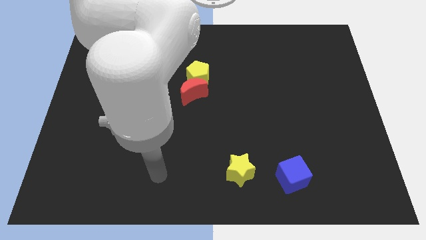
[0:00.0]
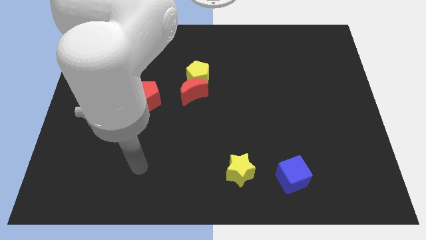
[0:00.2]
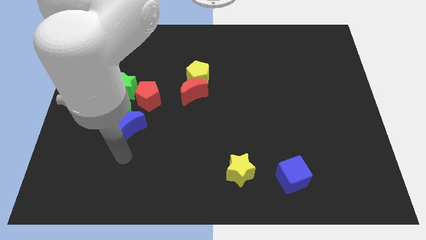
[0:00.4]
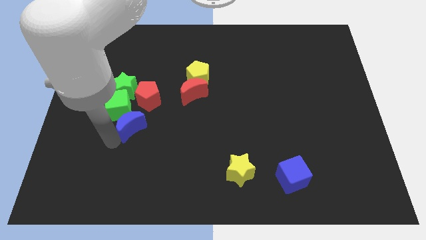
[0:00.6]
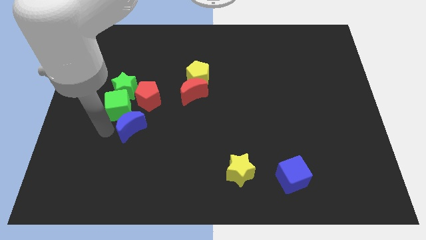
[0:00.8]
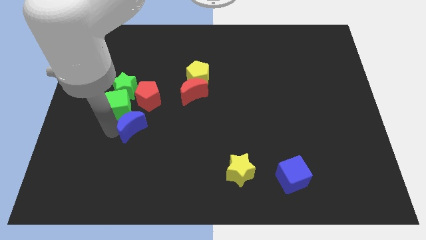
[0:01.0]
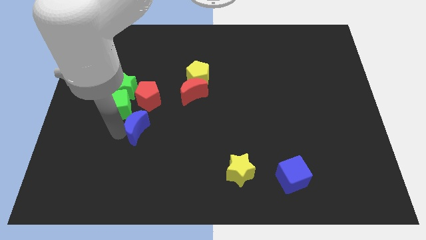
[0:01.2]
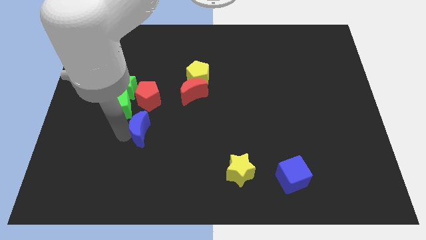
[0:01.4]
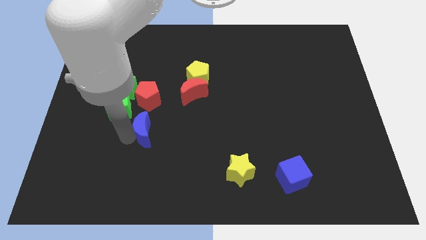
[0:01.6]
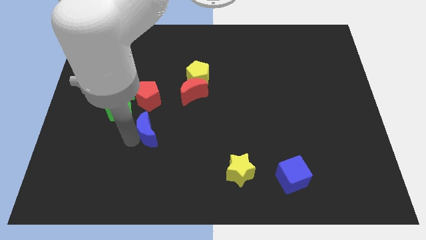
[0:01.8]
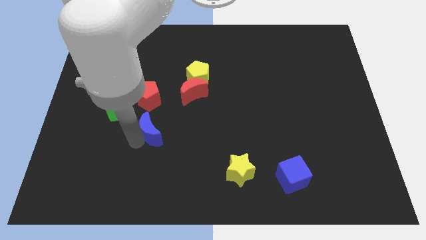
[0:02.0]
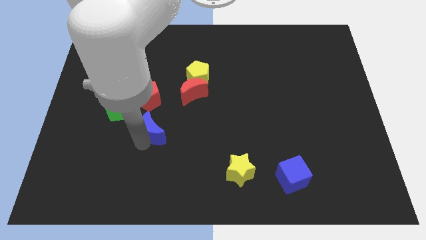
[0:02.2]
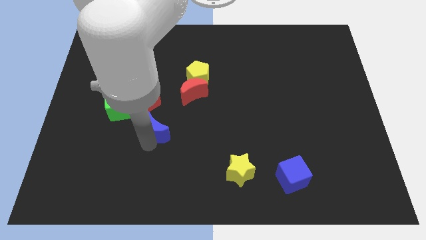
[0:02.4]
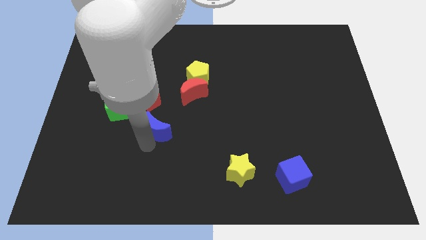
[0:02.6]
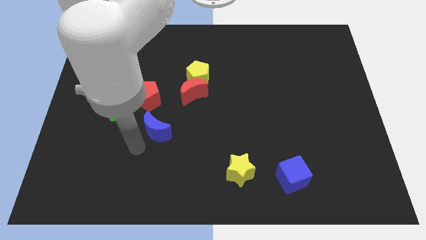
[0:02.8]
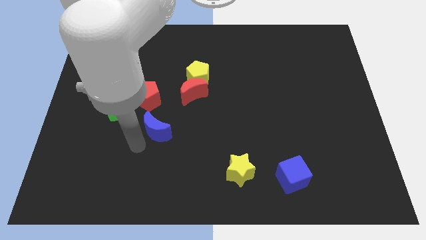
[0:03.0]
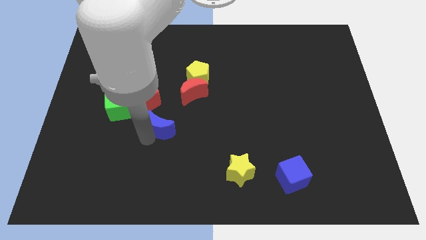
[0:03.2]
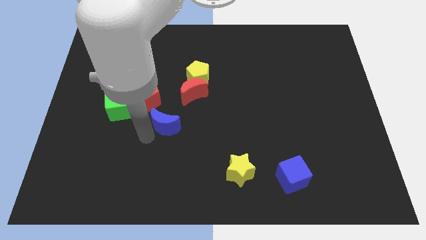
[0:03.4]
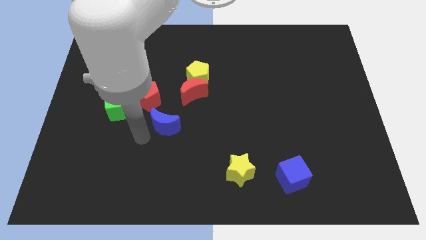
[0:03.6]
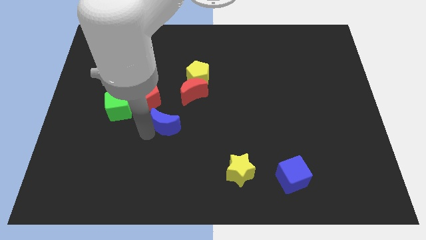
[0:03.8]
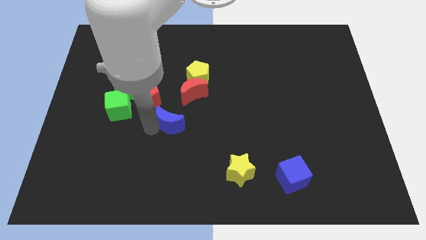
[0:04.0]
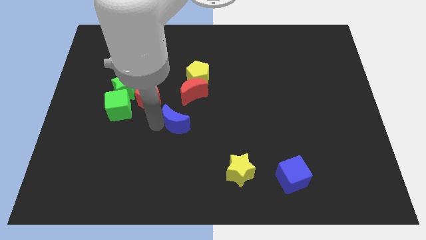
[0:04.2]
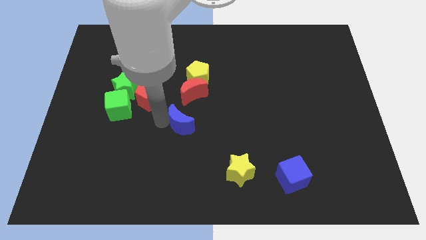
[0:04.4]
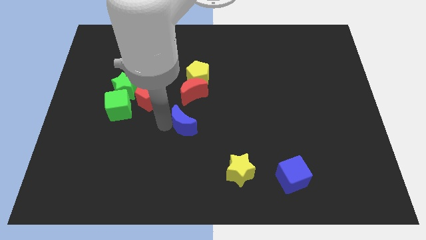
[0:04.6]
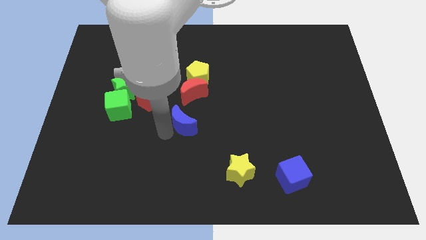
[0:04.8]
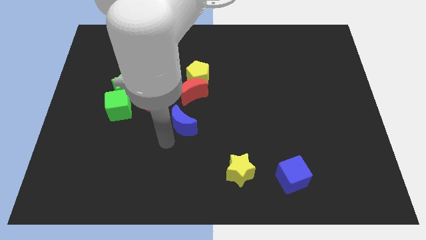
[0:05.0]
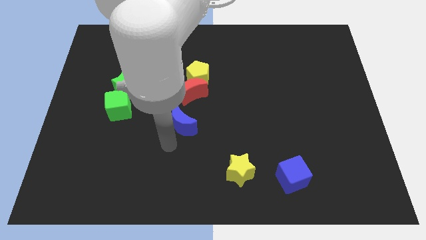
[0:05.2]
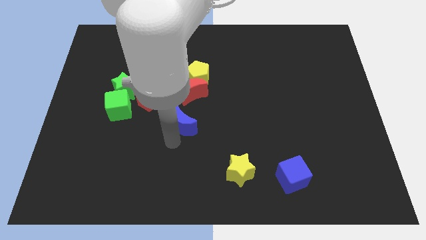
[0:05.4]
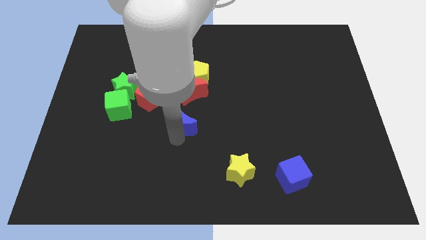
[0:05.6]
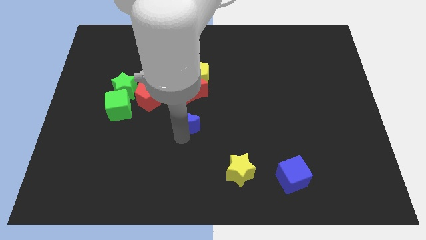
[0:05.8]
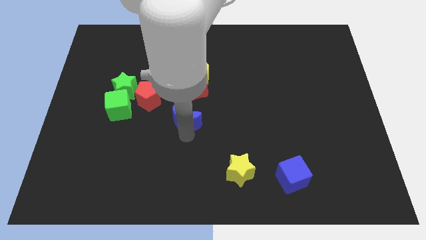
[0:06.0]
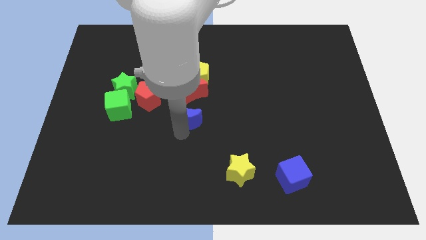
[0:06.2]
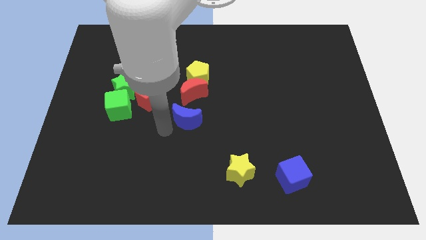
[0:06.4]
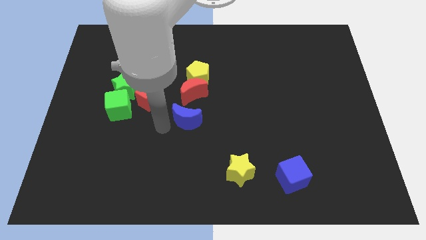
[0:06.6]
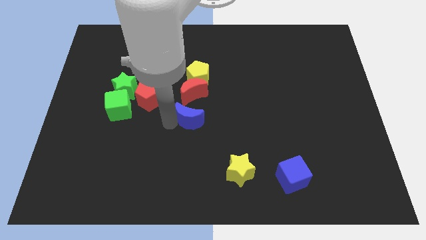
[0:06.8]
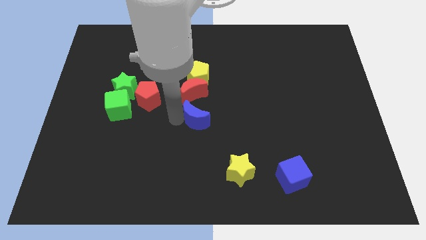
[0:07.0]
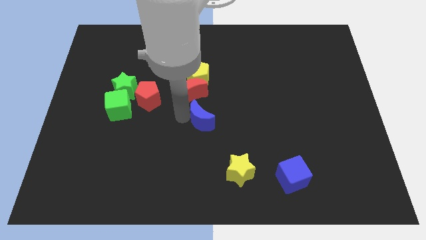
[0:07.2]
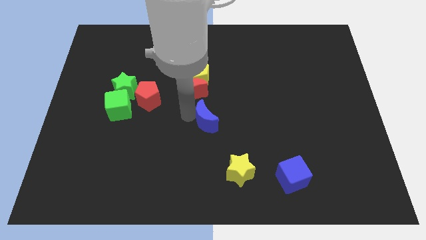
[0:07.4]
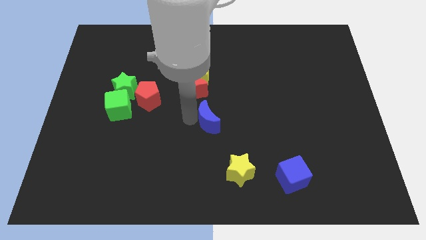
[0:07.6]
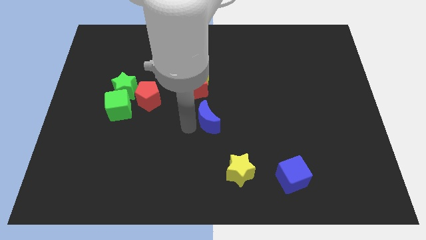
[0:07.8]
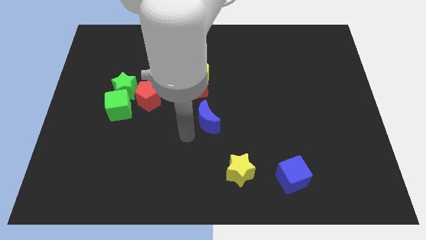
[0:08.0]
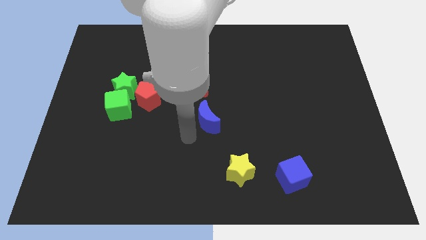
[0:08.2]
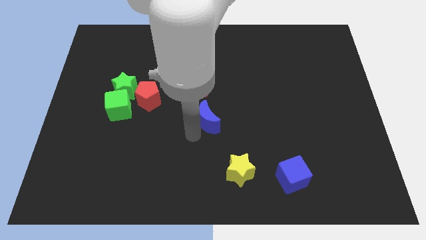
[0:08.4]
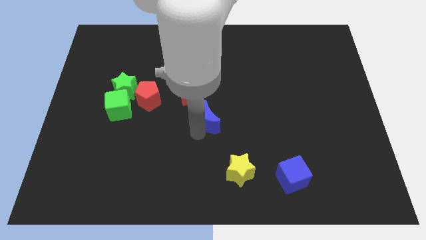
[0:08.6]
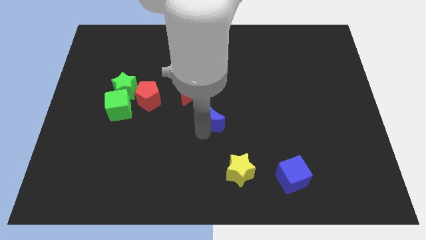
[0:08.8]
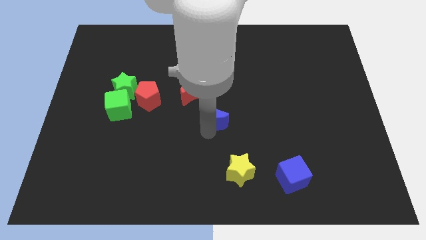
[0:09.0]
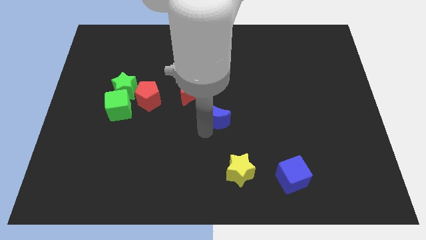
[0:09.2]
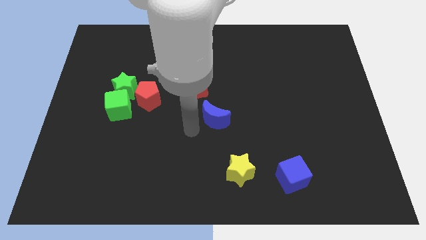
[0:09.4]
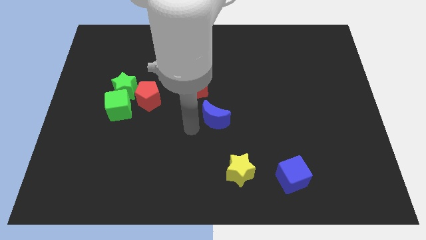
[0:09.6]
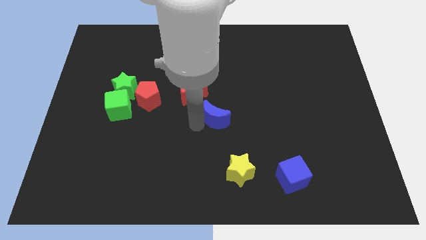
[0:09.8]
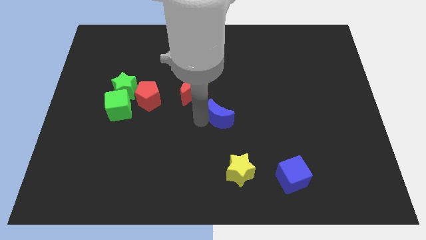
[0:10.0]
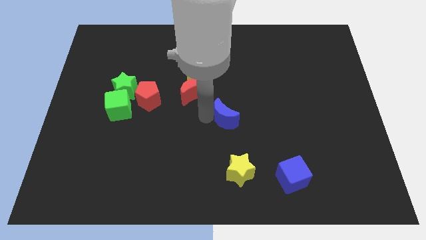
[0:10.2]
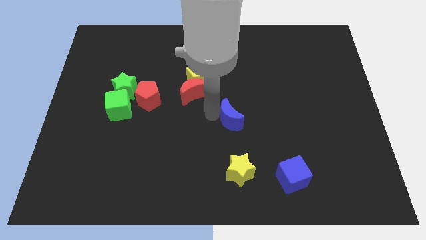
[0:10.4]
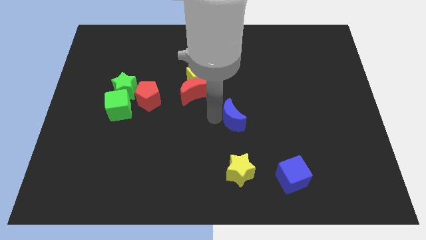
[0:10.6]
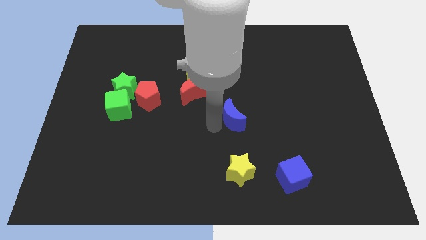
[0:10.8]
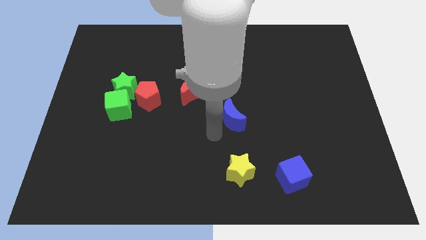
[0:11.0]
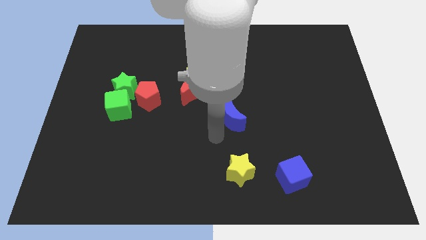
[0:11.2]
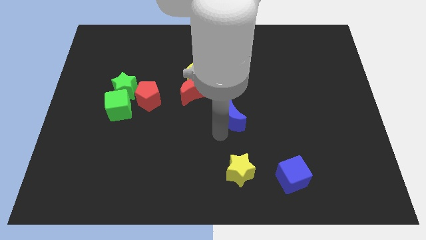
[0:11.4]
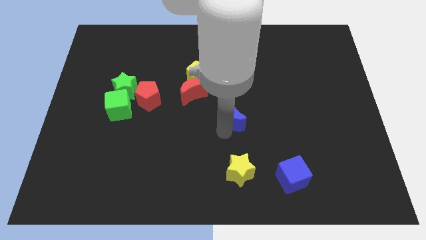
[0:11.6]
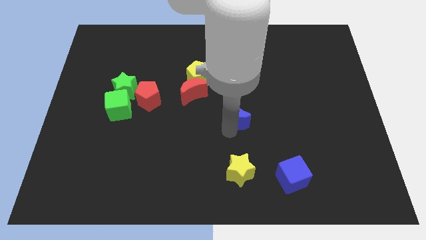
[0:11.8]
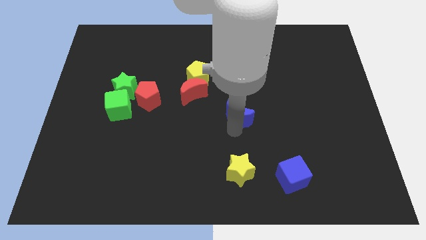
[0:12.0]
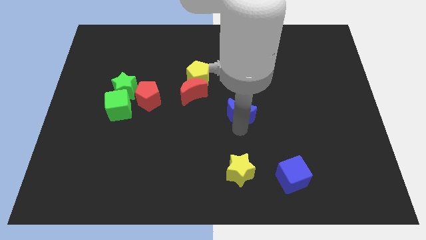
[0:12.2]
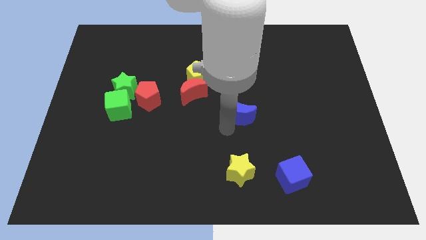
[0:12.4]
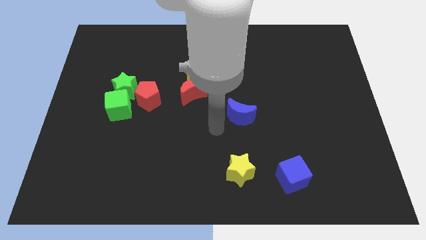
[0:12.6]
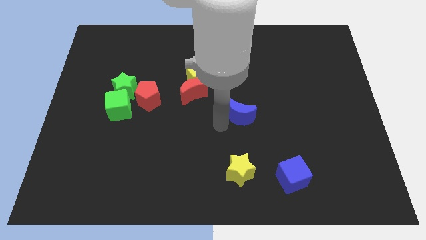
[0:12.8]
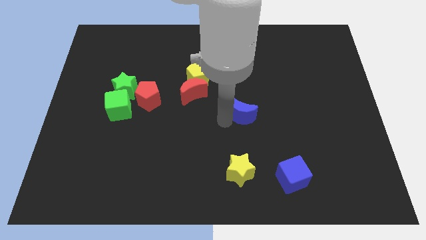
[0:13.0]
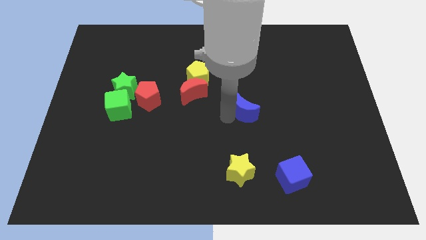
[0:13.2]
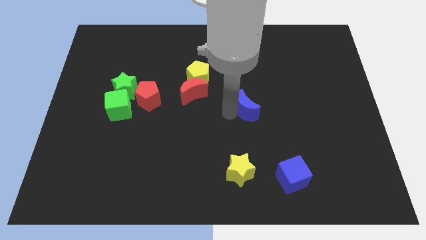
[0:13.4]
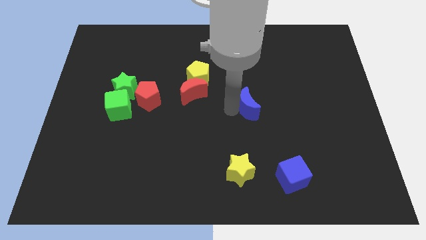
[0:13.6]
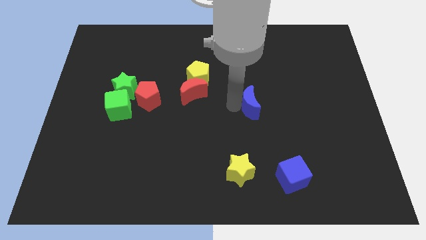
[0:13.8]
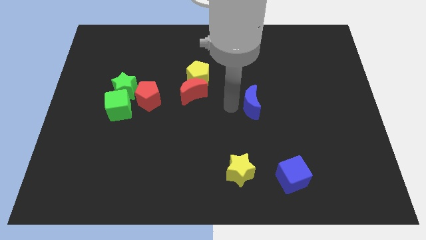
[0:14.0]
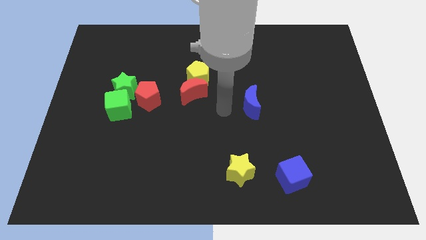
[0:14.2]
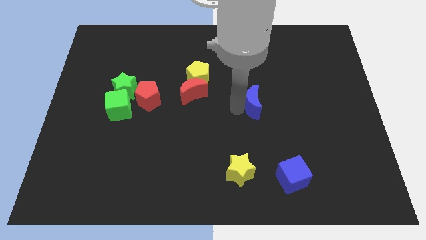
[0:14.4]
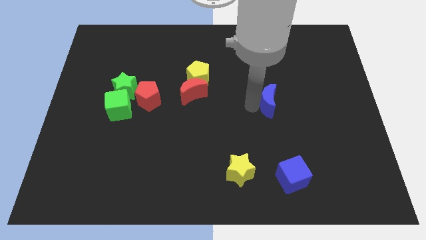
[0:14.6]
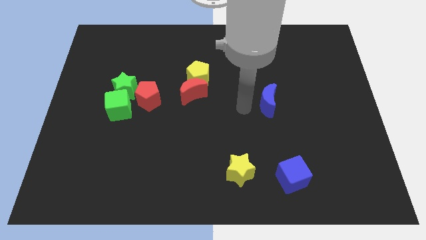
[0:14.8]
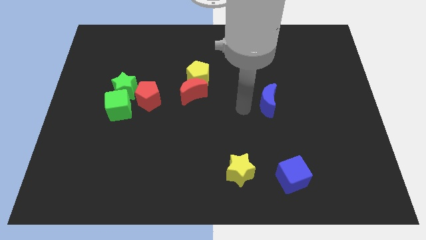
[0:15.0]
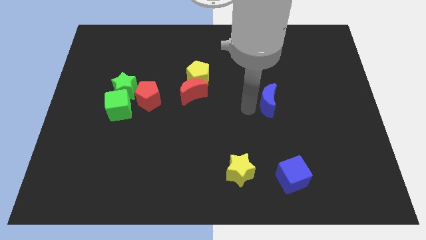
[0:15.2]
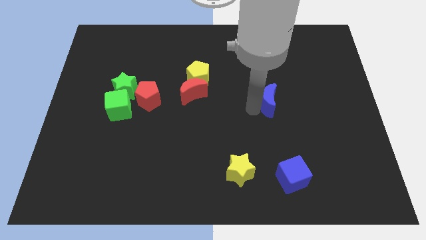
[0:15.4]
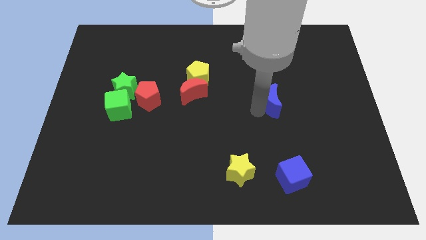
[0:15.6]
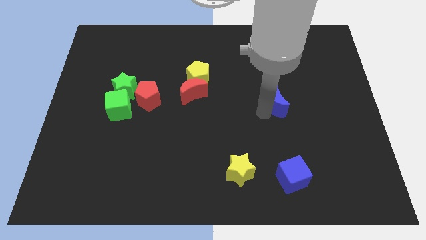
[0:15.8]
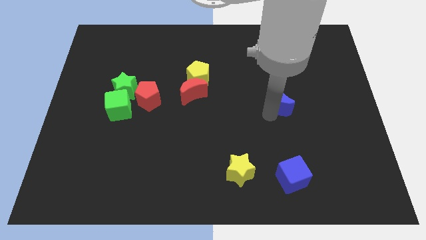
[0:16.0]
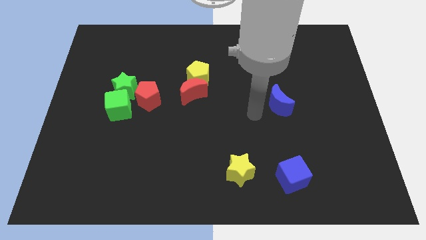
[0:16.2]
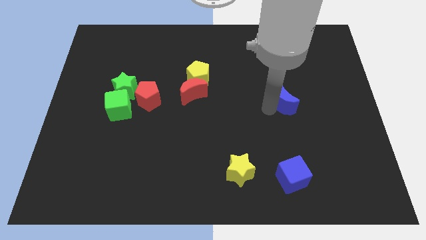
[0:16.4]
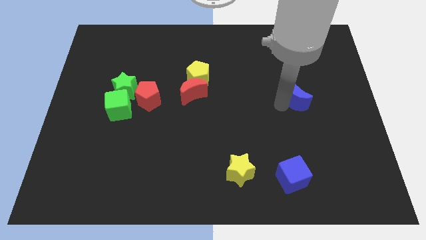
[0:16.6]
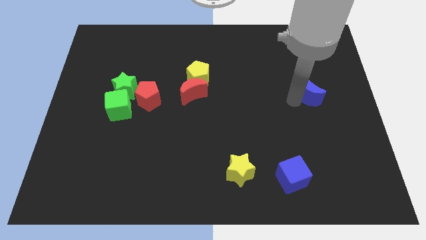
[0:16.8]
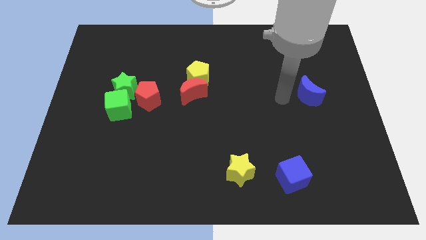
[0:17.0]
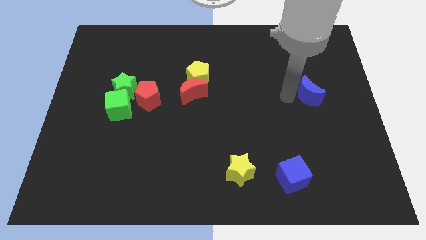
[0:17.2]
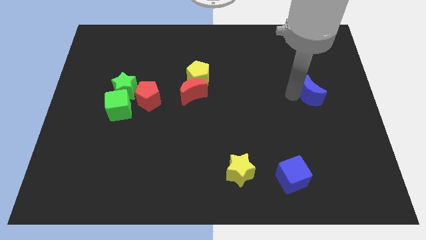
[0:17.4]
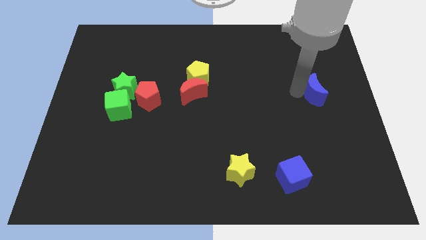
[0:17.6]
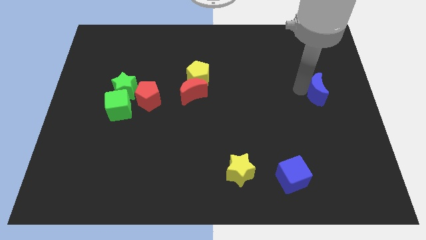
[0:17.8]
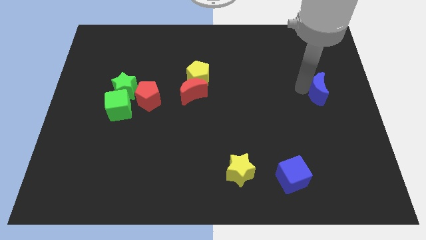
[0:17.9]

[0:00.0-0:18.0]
push the blue moon to the right side
